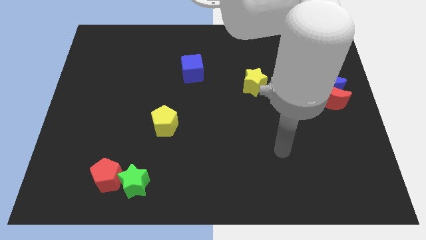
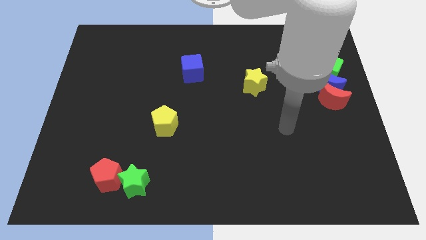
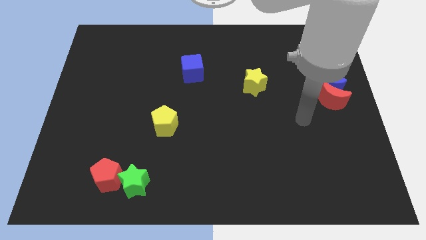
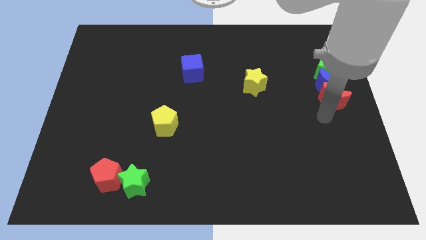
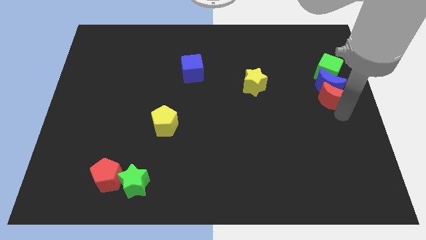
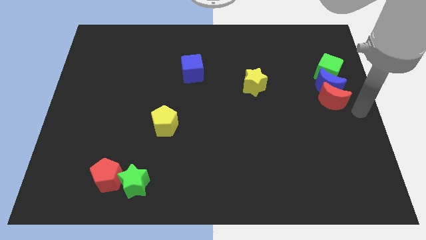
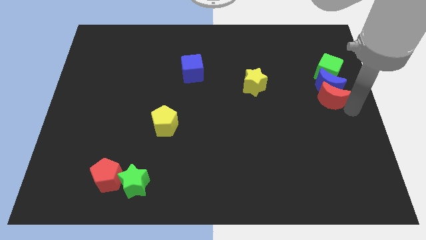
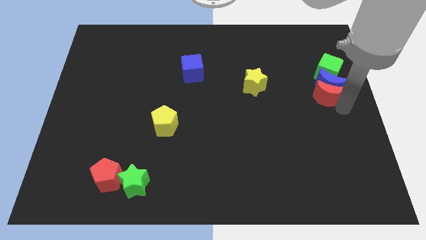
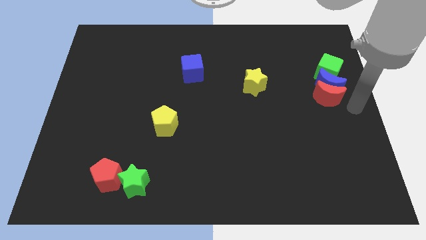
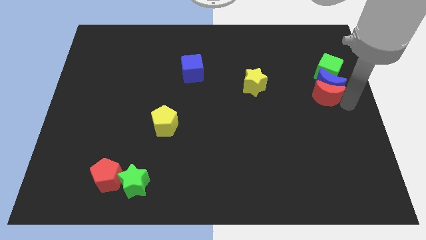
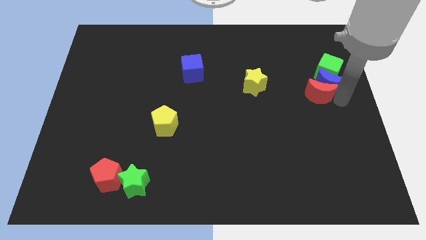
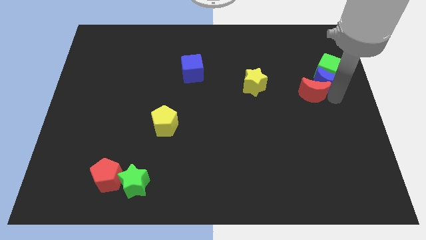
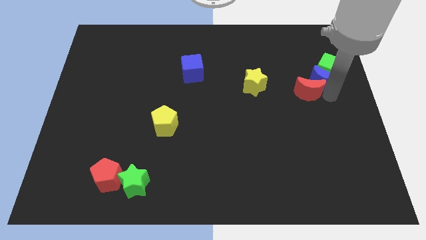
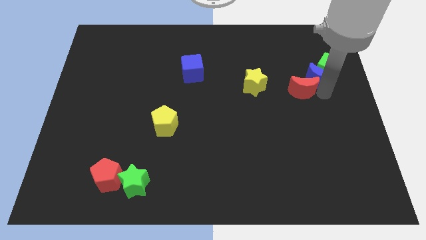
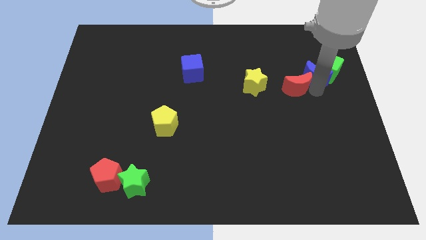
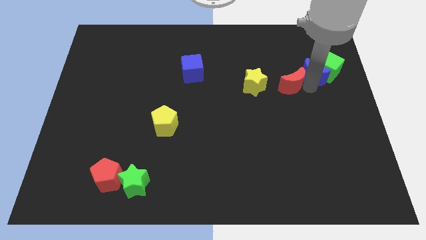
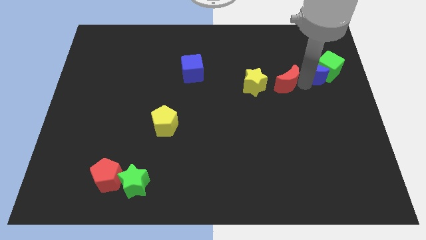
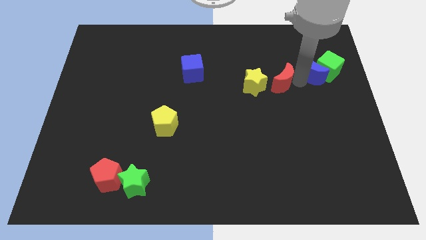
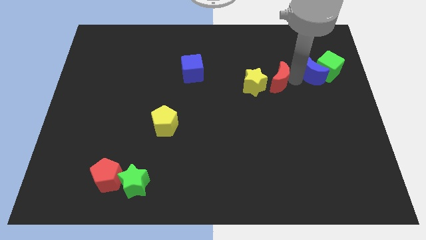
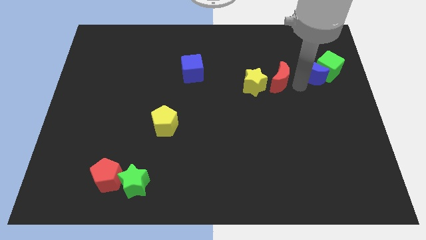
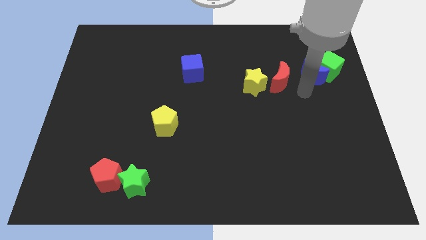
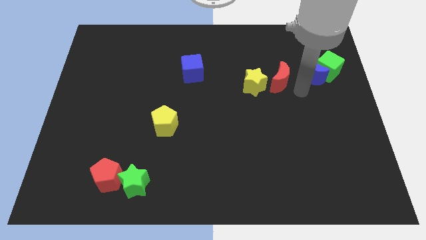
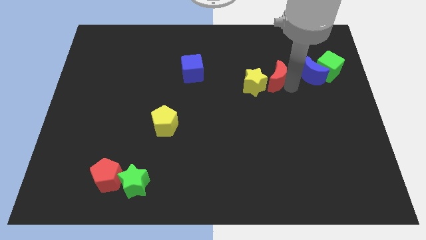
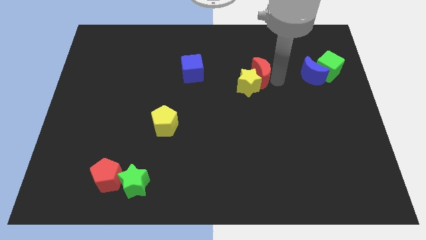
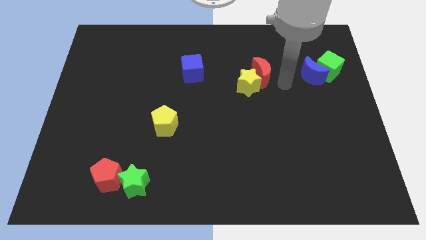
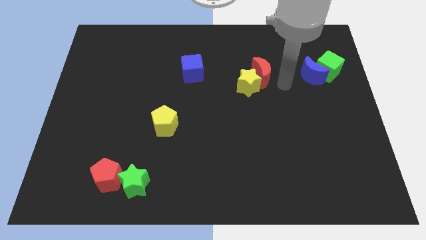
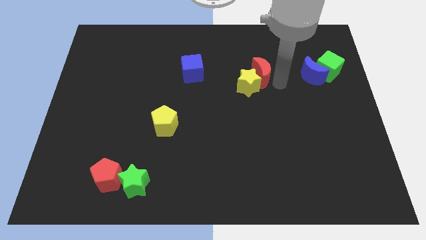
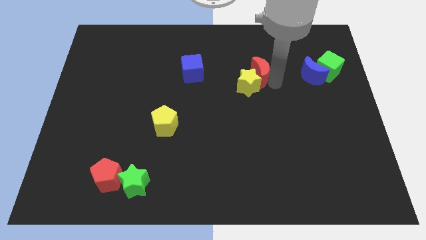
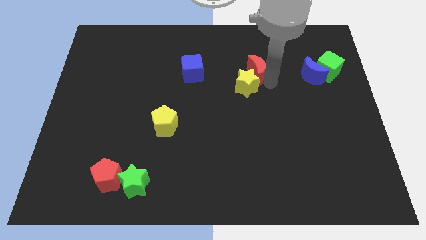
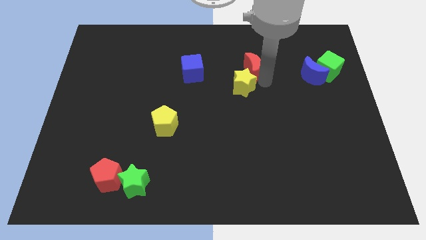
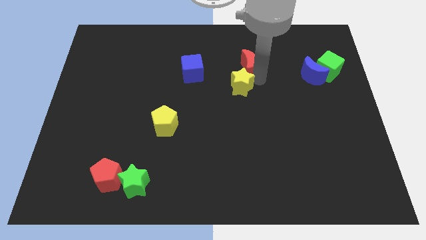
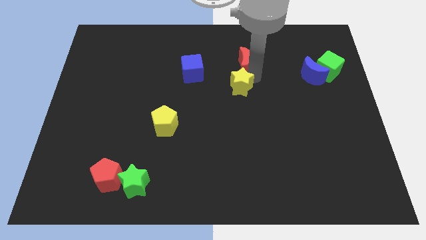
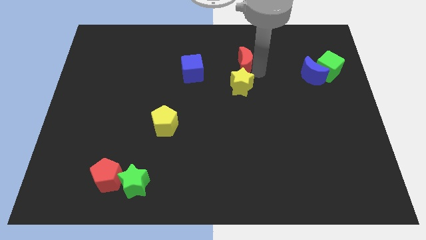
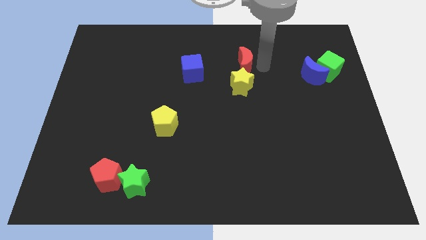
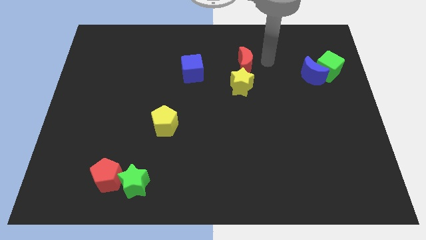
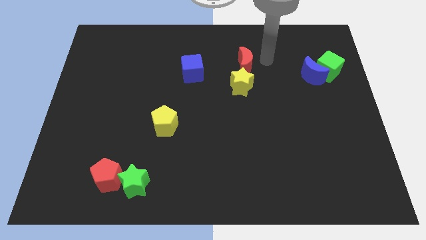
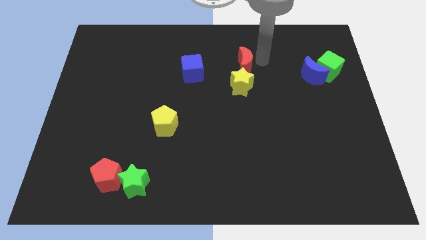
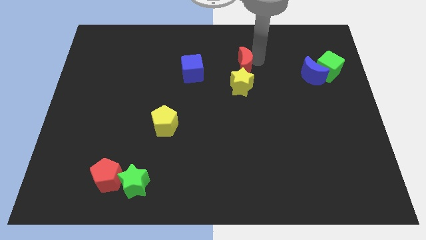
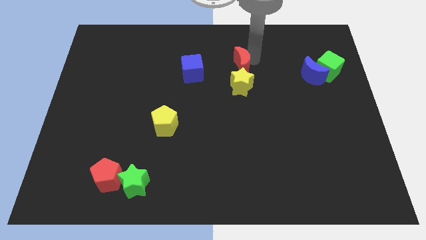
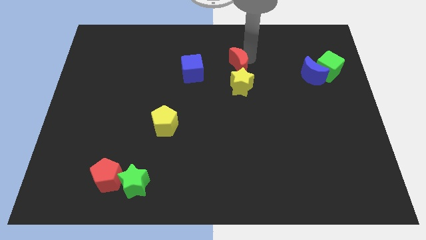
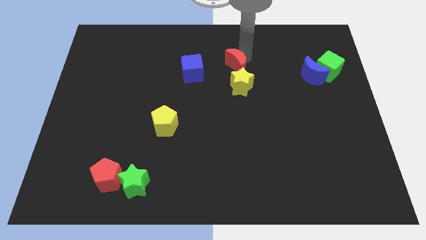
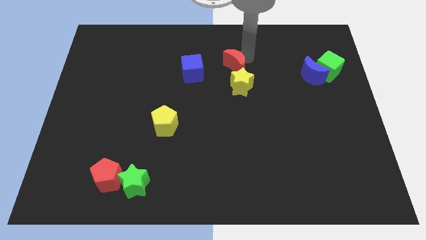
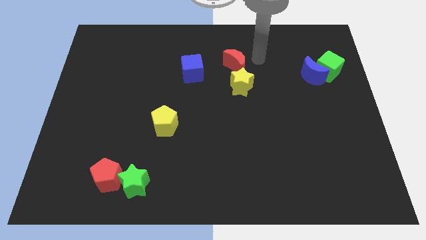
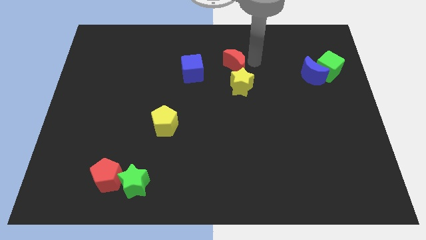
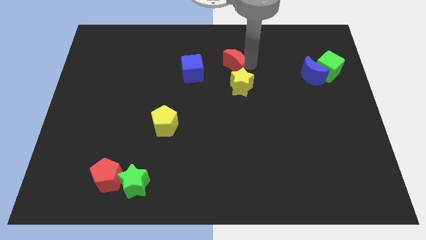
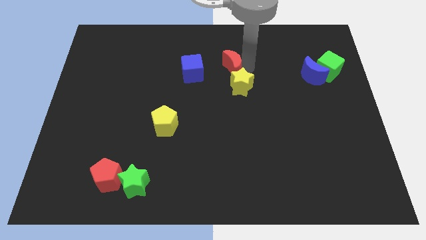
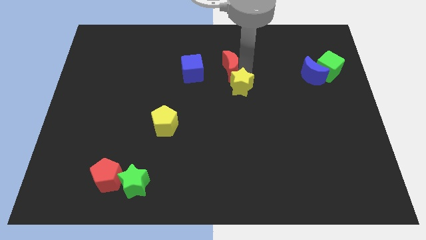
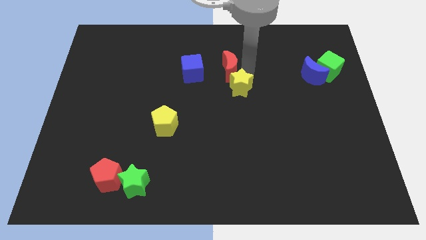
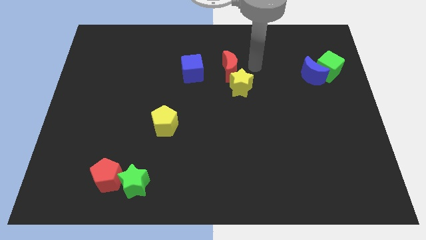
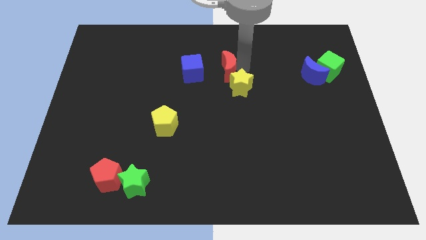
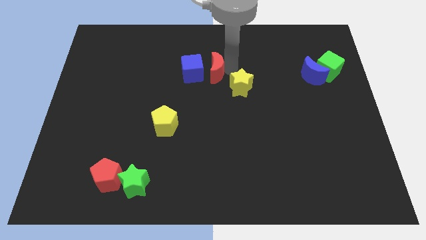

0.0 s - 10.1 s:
push the red moon next to the blue cube

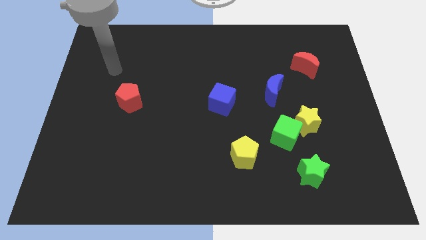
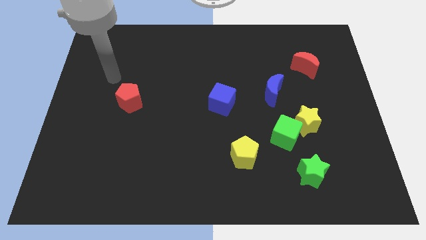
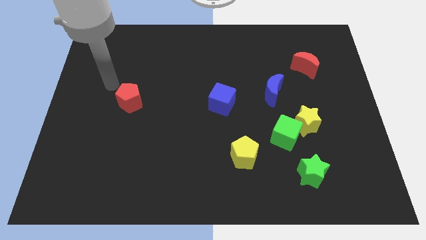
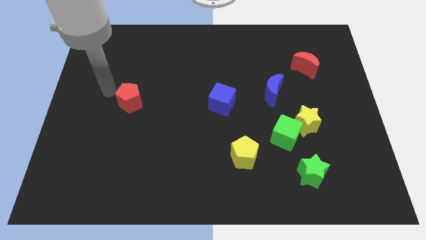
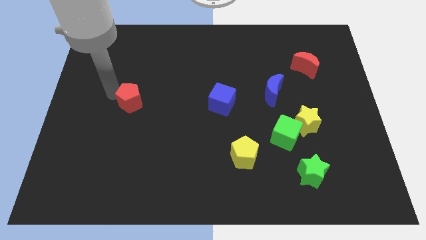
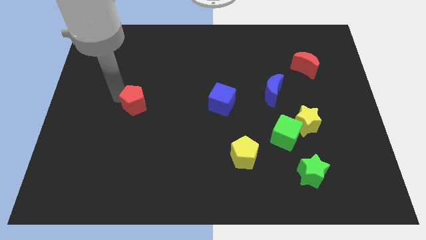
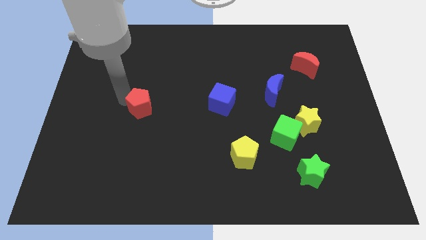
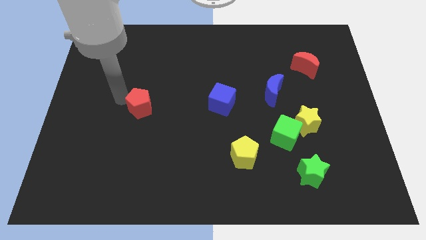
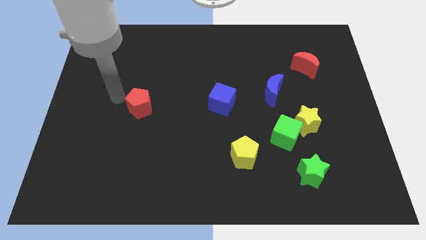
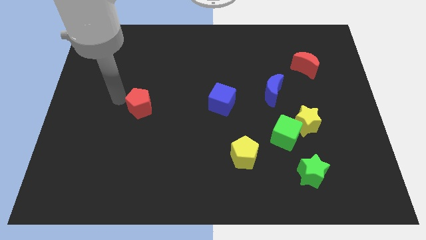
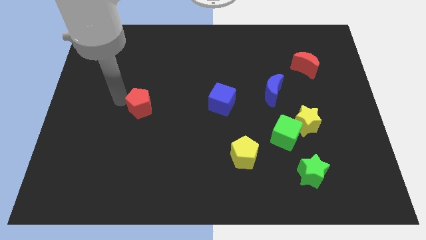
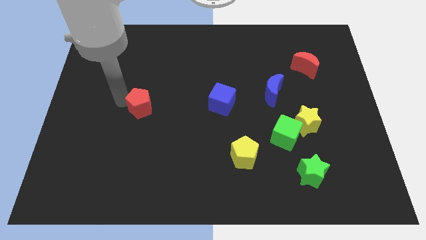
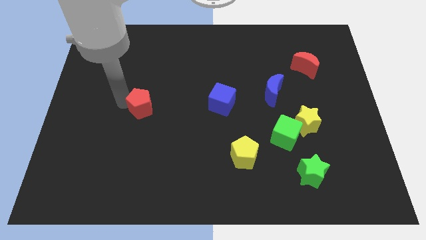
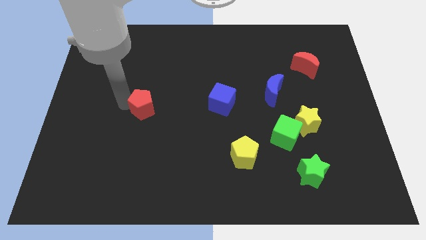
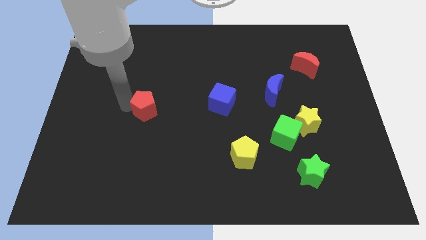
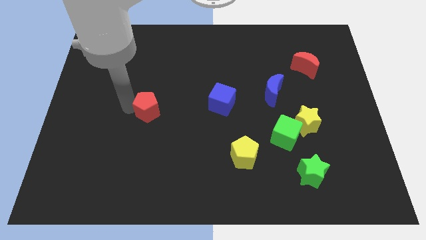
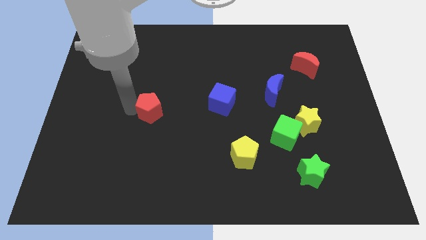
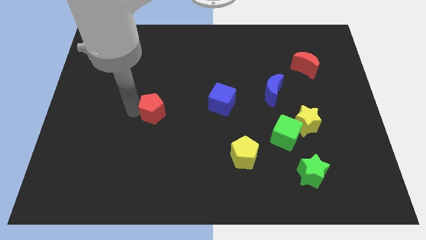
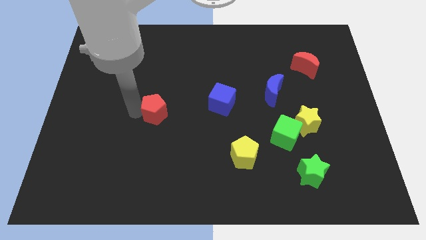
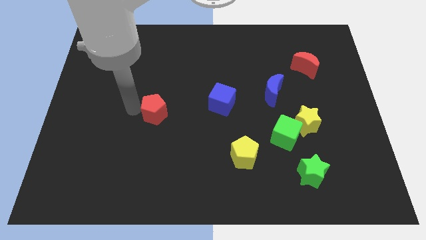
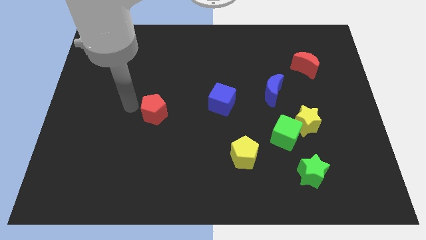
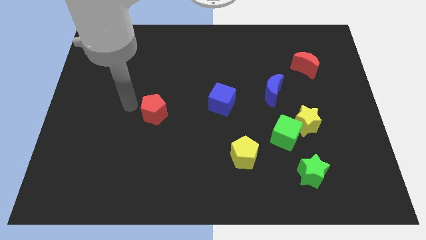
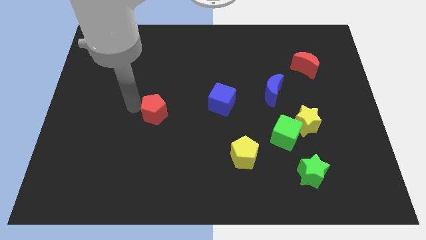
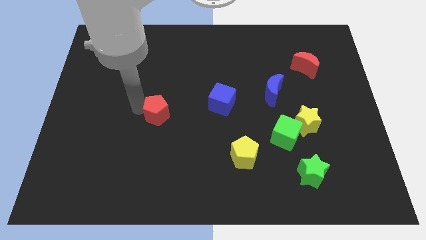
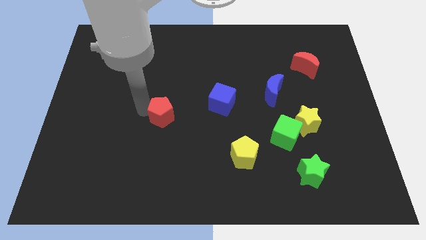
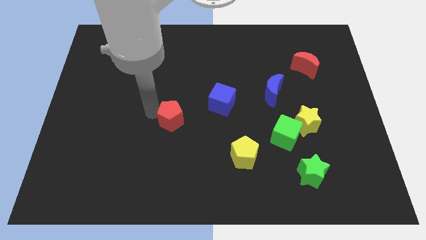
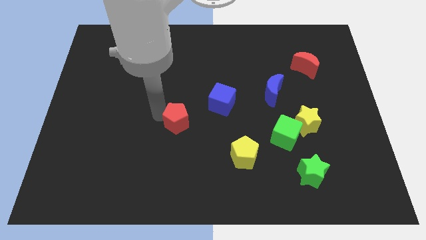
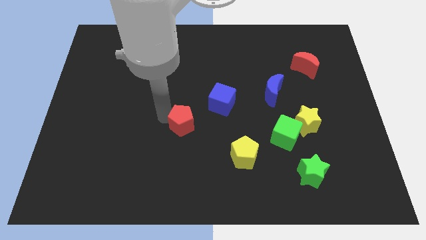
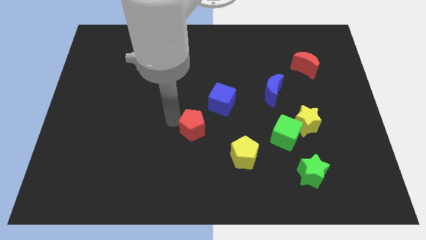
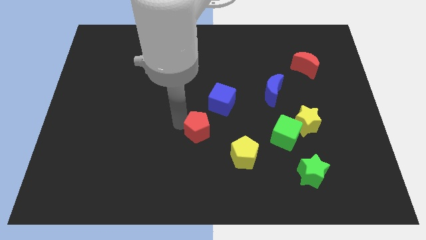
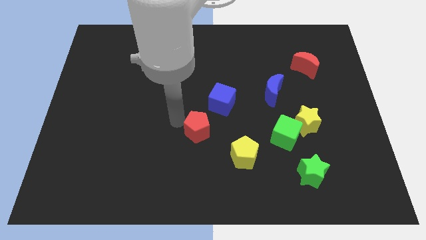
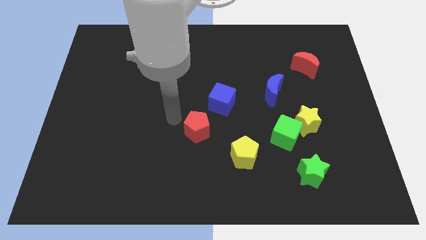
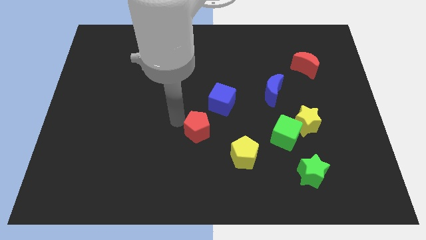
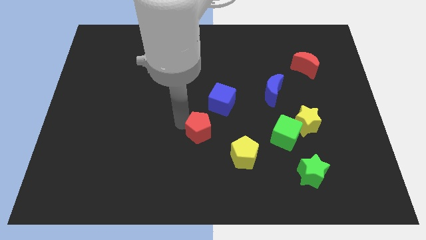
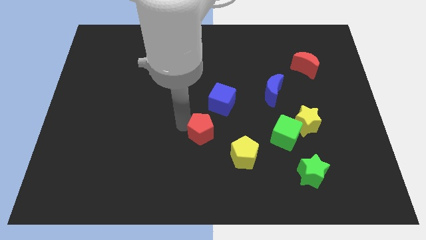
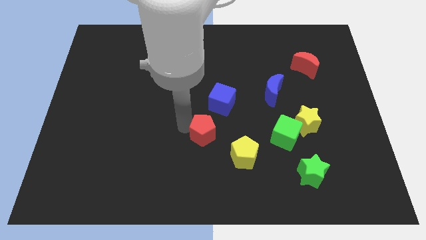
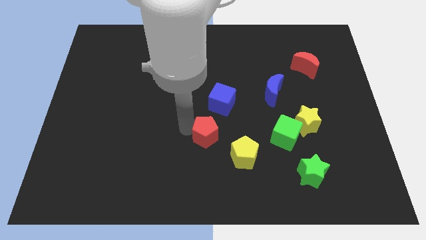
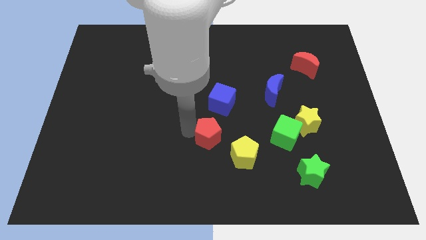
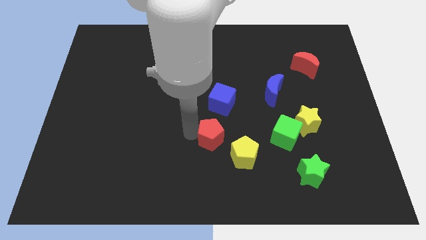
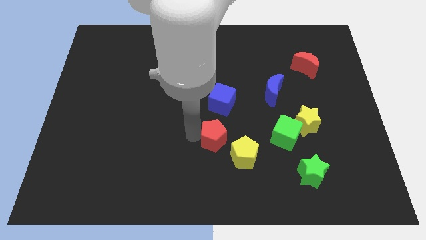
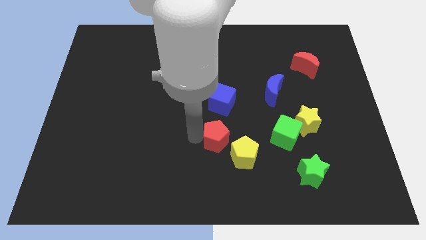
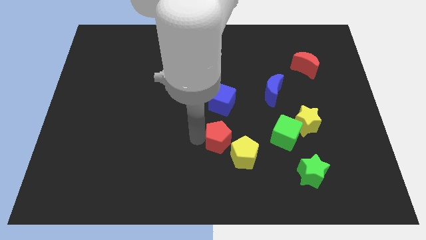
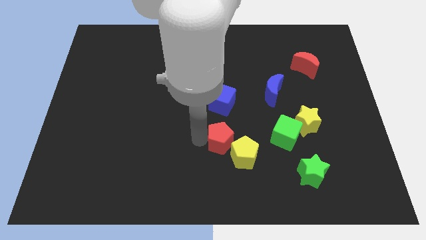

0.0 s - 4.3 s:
move the red pentagon next to the yellow pentagon
